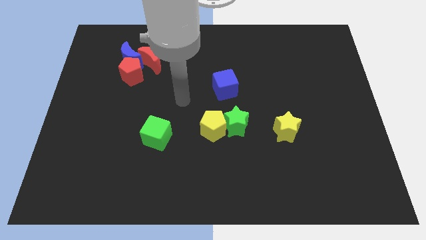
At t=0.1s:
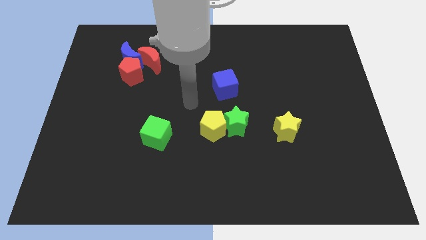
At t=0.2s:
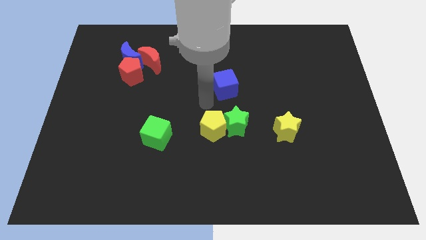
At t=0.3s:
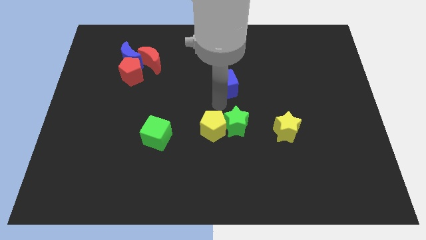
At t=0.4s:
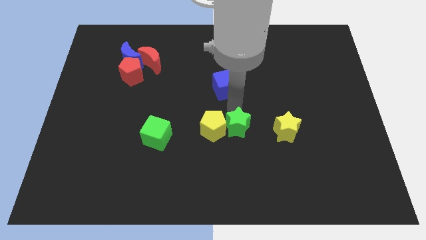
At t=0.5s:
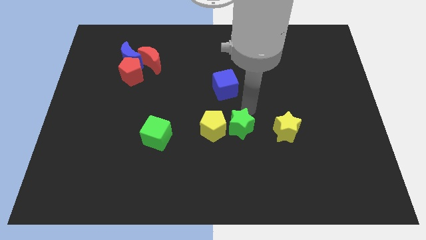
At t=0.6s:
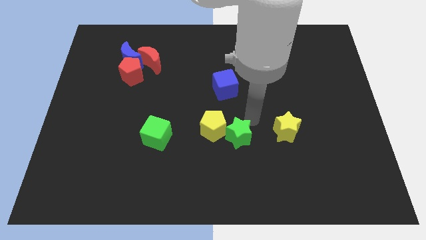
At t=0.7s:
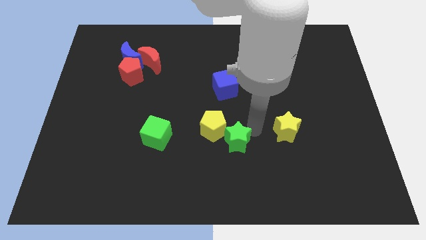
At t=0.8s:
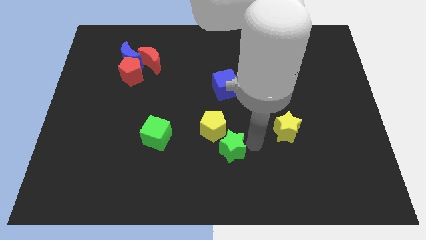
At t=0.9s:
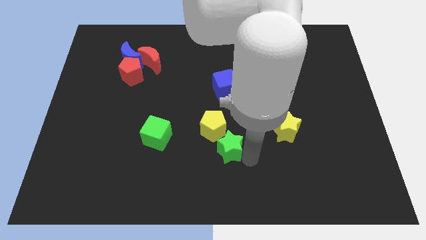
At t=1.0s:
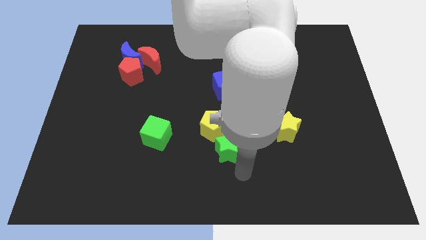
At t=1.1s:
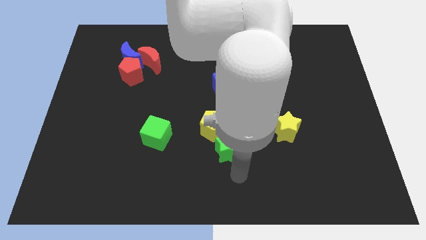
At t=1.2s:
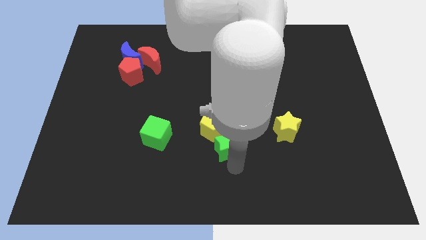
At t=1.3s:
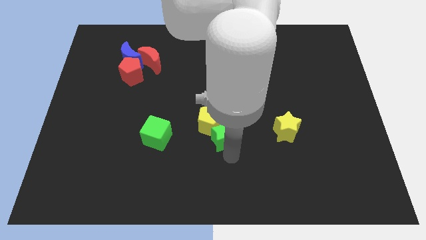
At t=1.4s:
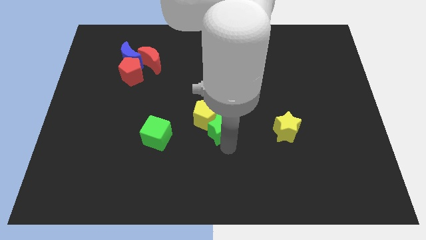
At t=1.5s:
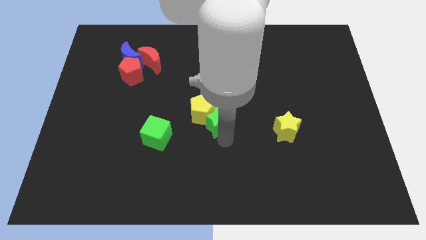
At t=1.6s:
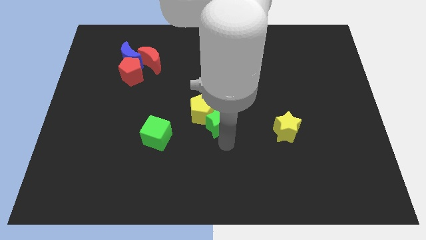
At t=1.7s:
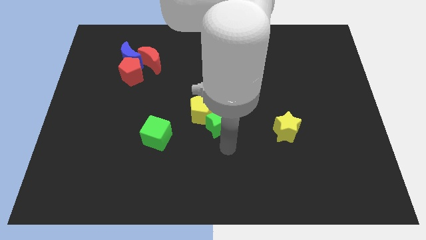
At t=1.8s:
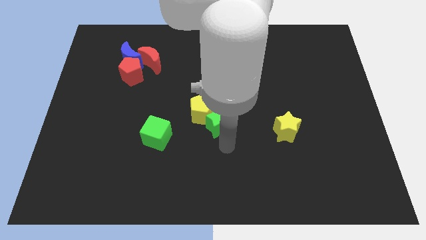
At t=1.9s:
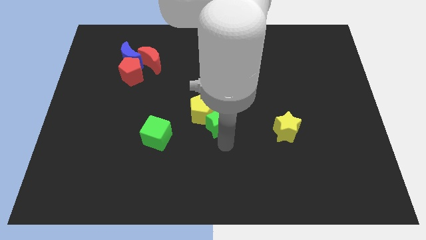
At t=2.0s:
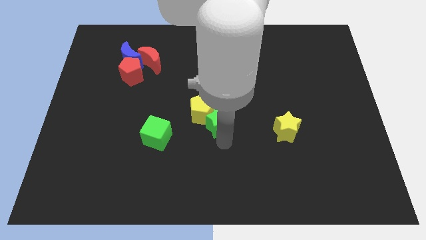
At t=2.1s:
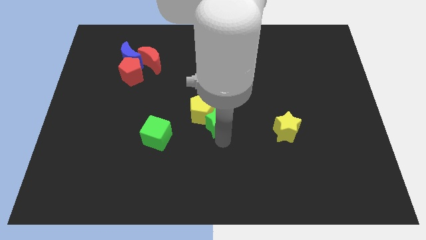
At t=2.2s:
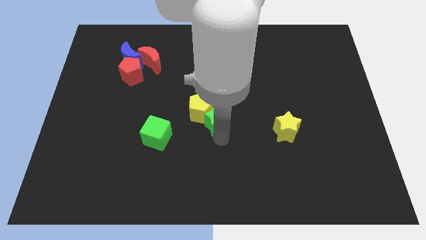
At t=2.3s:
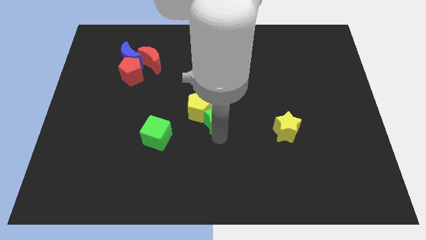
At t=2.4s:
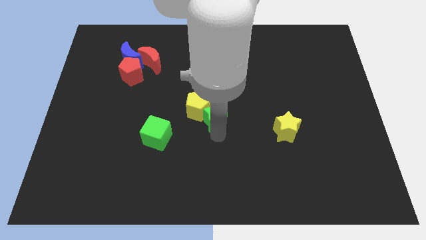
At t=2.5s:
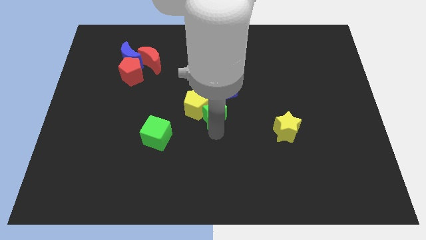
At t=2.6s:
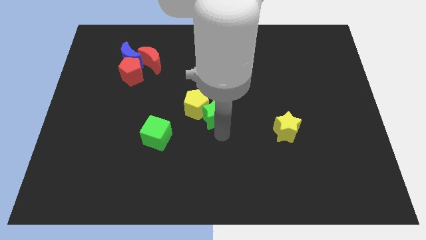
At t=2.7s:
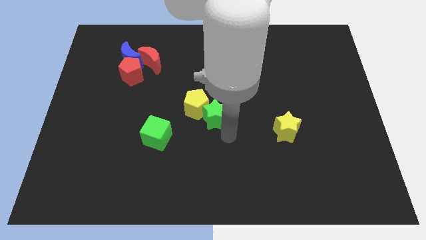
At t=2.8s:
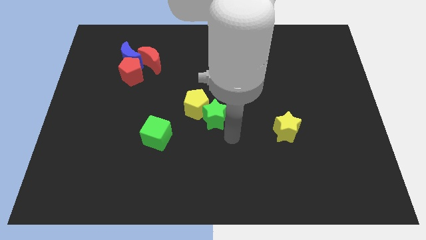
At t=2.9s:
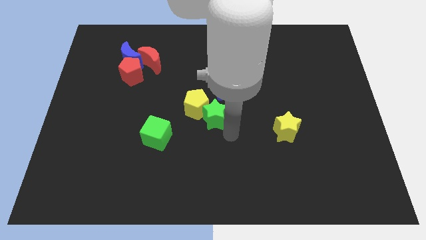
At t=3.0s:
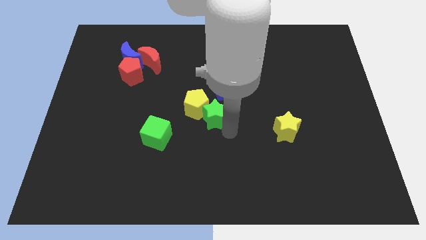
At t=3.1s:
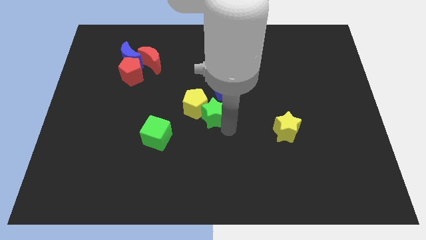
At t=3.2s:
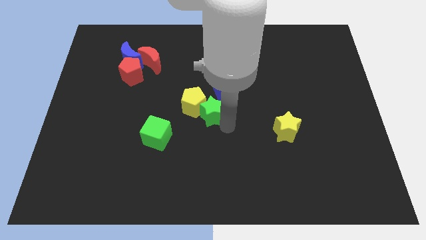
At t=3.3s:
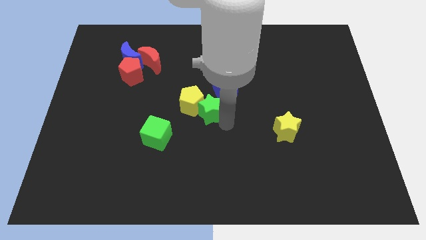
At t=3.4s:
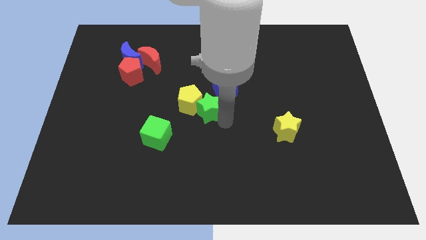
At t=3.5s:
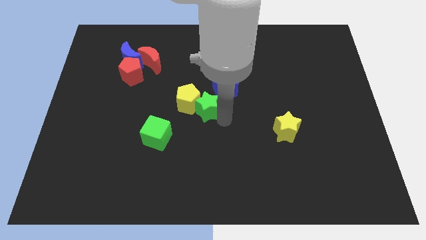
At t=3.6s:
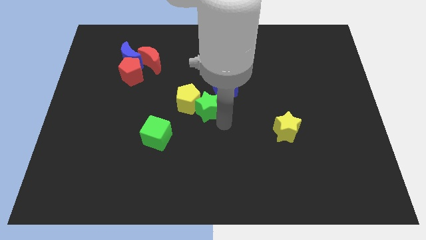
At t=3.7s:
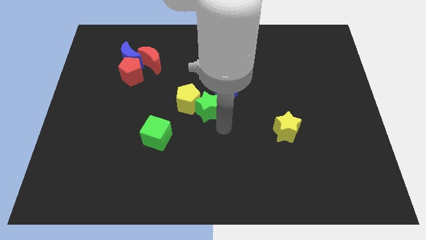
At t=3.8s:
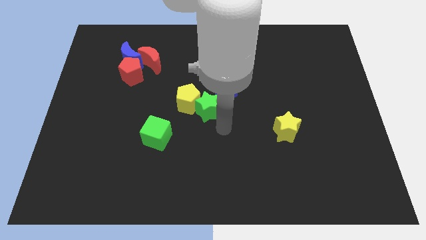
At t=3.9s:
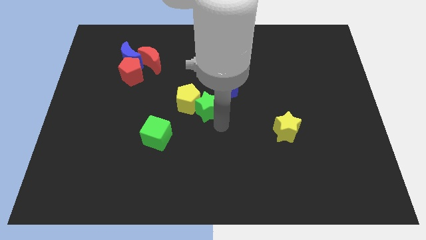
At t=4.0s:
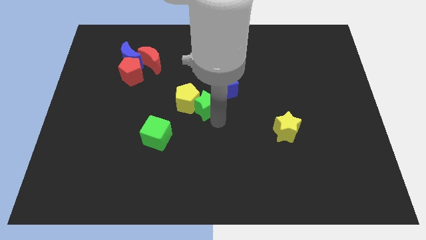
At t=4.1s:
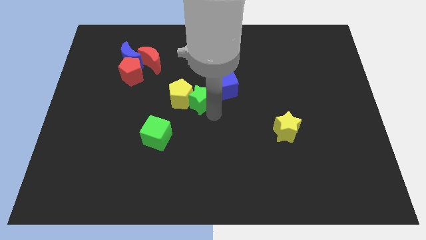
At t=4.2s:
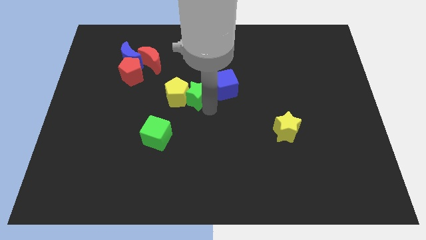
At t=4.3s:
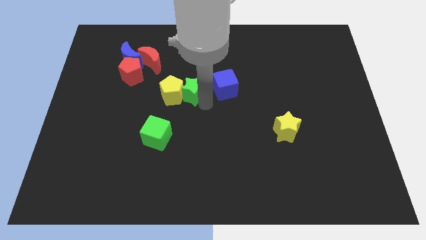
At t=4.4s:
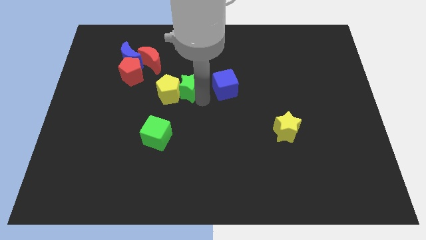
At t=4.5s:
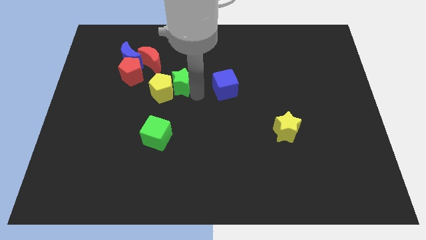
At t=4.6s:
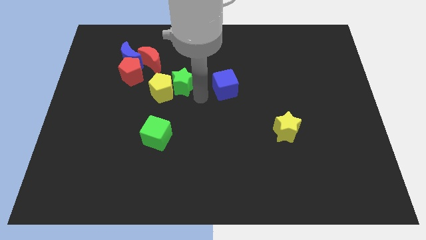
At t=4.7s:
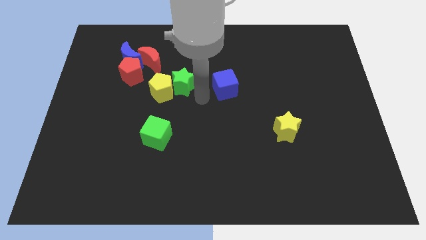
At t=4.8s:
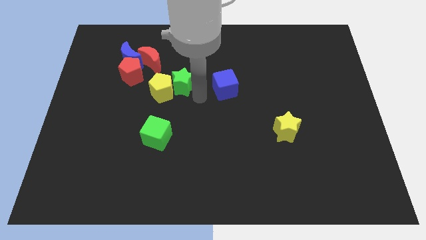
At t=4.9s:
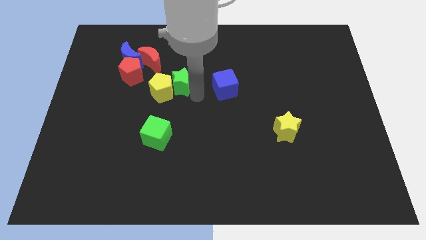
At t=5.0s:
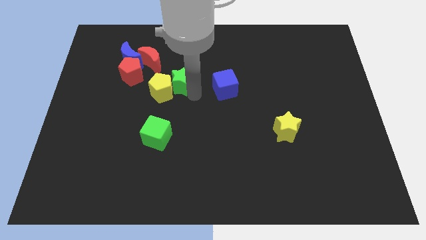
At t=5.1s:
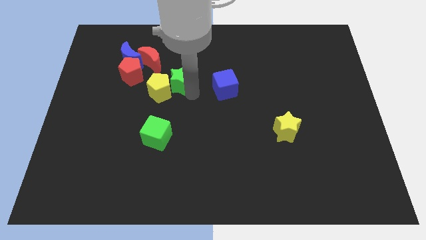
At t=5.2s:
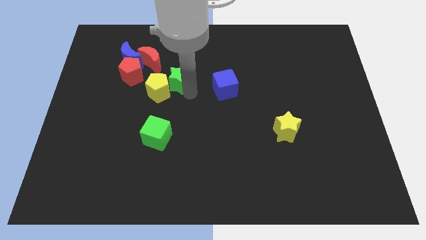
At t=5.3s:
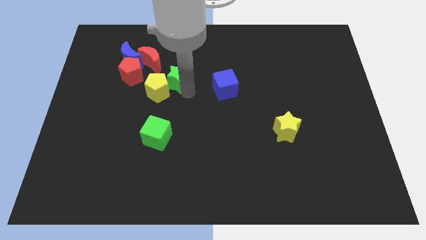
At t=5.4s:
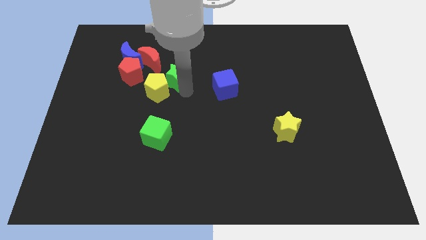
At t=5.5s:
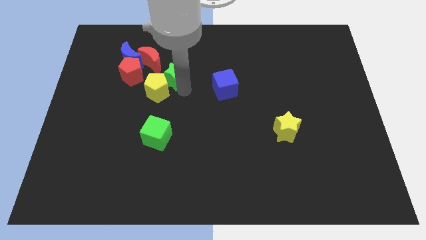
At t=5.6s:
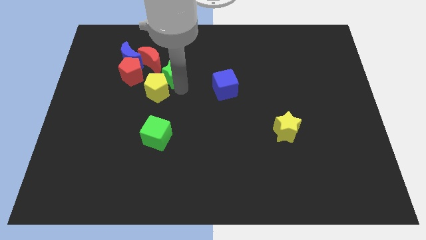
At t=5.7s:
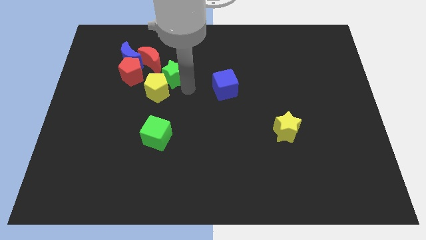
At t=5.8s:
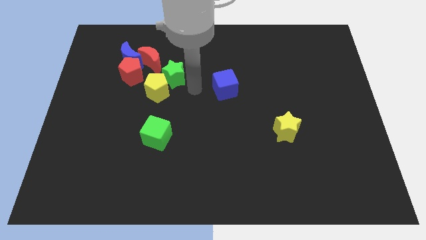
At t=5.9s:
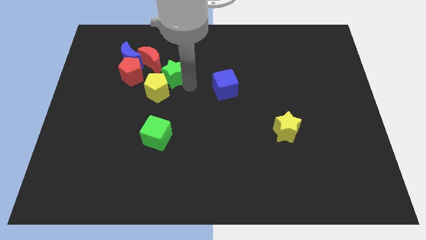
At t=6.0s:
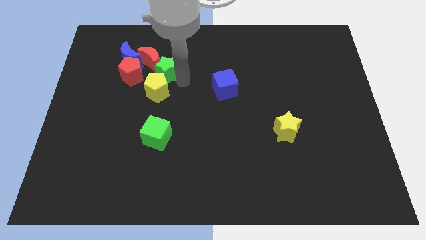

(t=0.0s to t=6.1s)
move the green star close to the red moon

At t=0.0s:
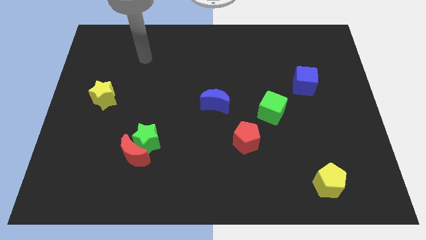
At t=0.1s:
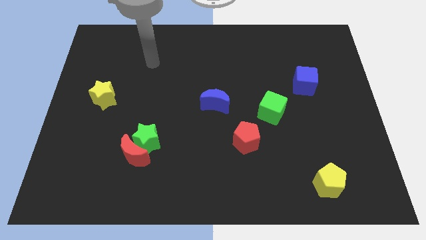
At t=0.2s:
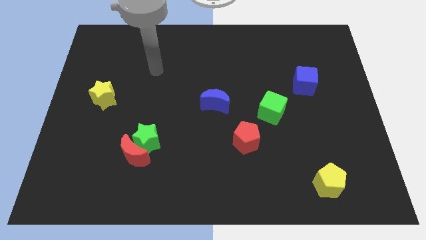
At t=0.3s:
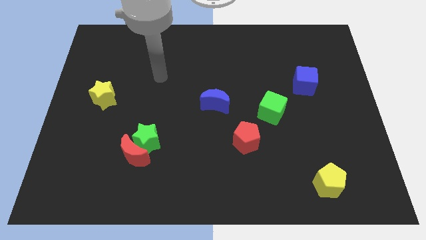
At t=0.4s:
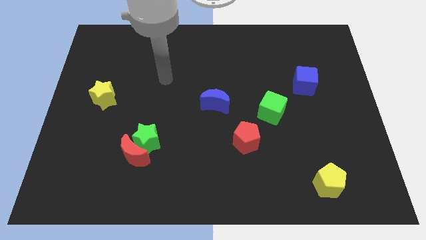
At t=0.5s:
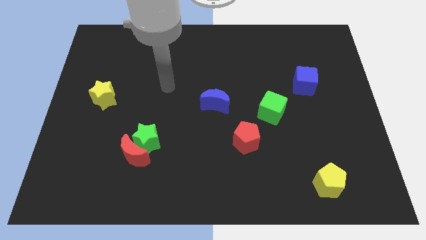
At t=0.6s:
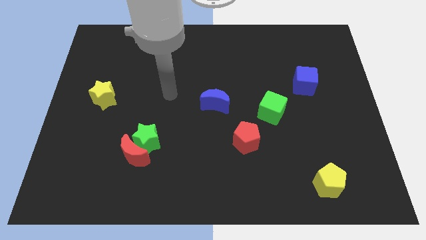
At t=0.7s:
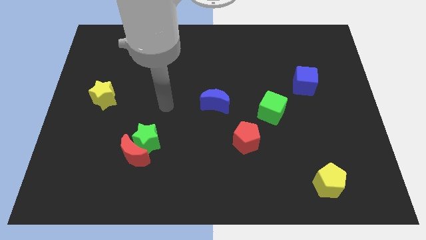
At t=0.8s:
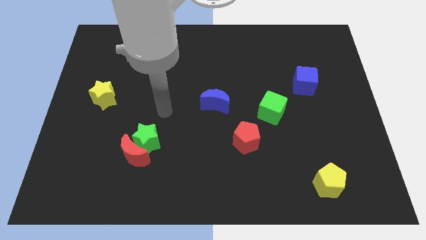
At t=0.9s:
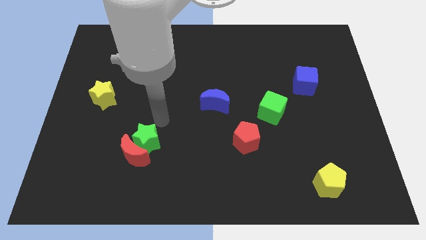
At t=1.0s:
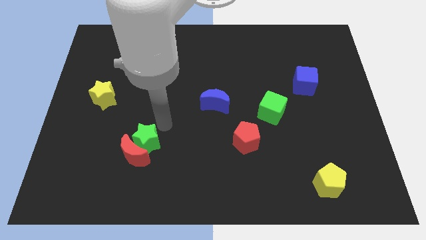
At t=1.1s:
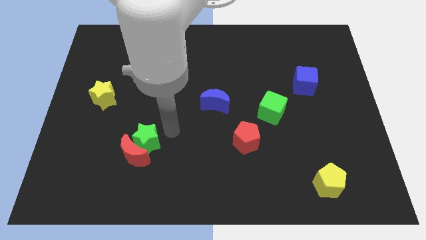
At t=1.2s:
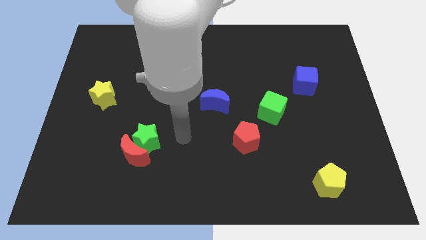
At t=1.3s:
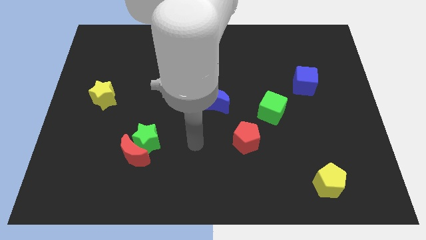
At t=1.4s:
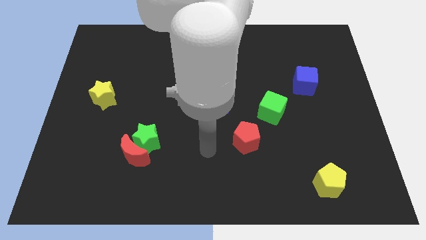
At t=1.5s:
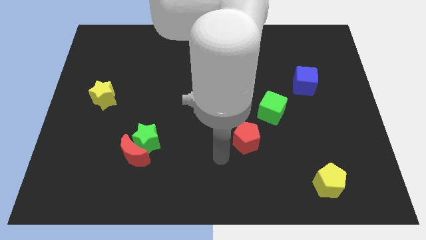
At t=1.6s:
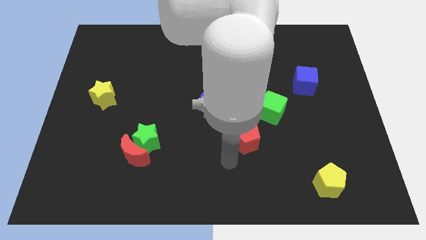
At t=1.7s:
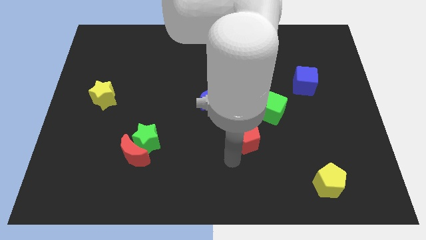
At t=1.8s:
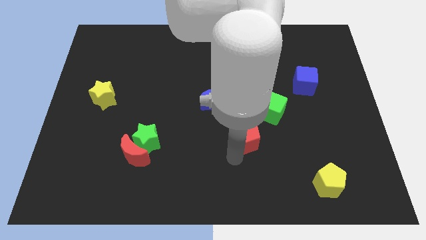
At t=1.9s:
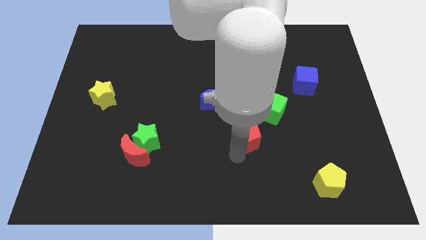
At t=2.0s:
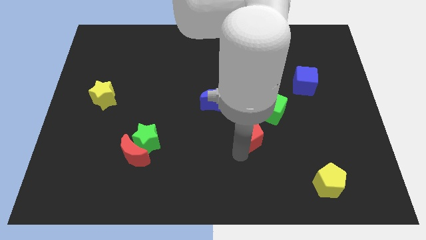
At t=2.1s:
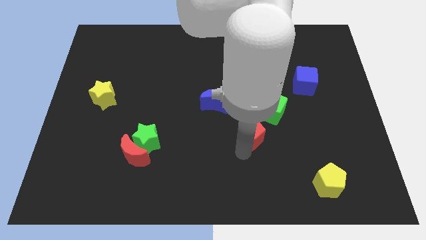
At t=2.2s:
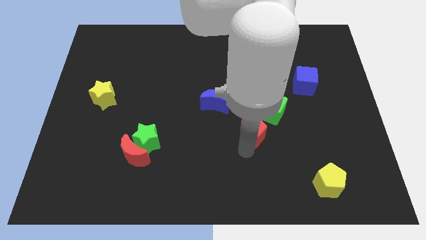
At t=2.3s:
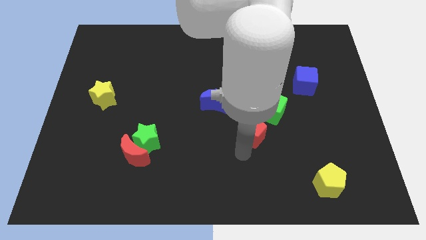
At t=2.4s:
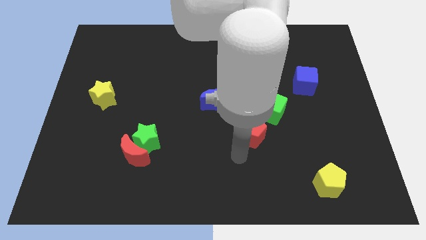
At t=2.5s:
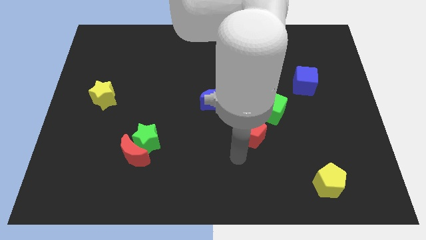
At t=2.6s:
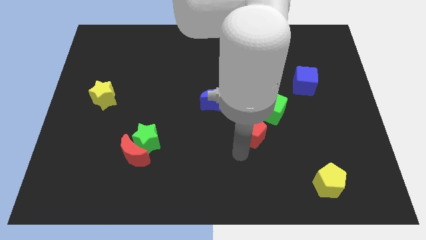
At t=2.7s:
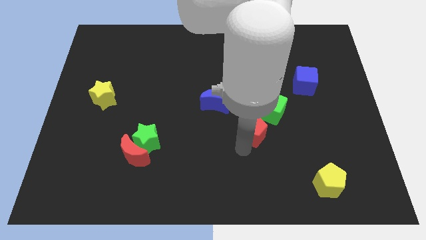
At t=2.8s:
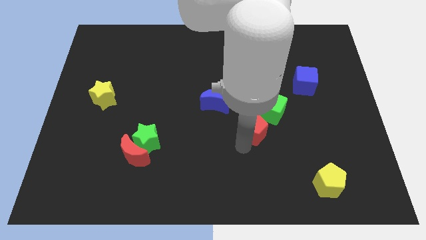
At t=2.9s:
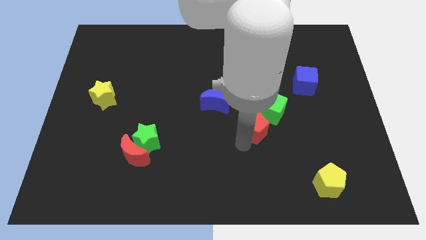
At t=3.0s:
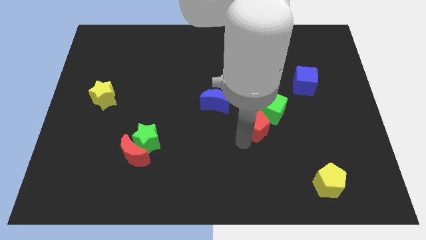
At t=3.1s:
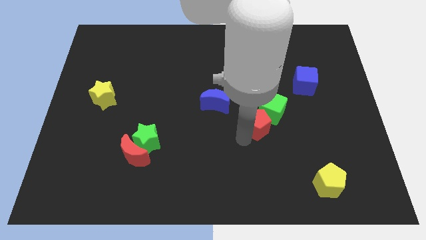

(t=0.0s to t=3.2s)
push the red pentagon to the green cube
